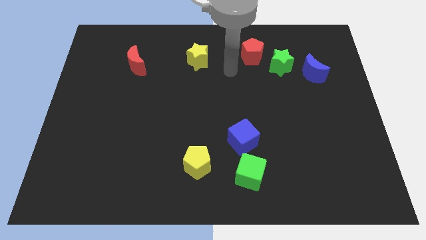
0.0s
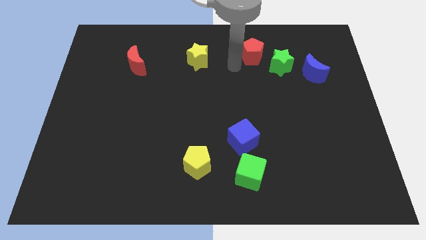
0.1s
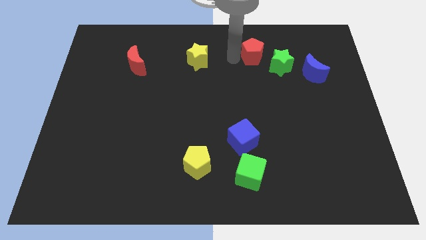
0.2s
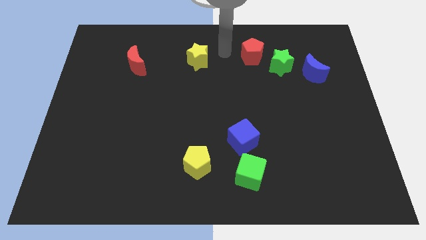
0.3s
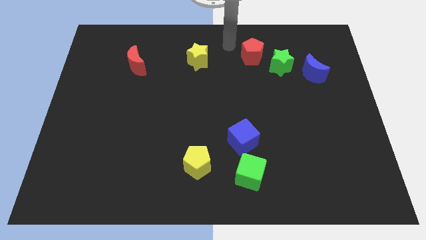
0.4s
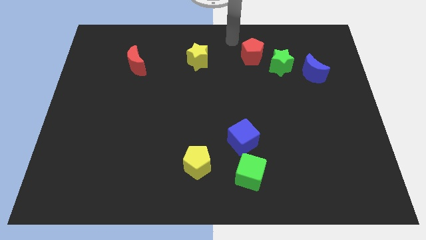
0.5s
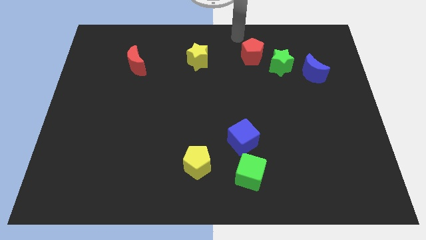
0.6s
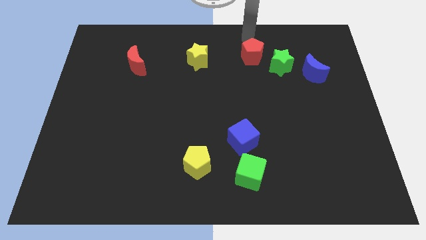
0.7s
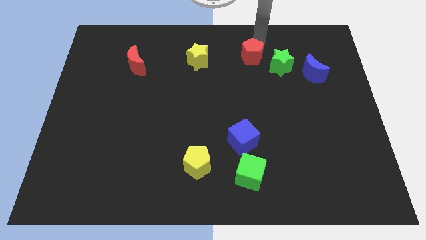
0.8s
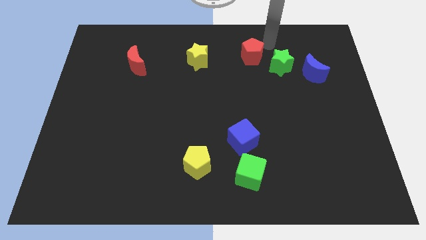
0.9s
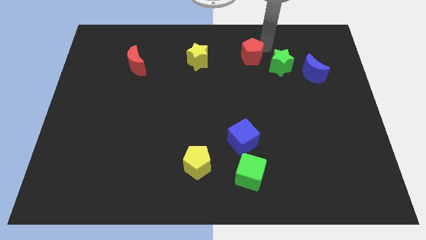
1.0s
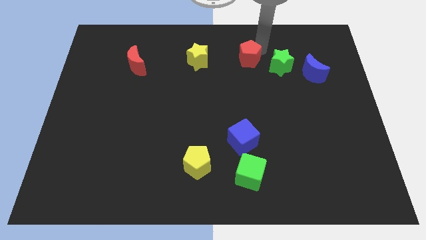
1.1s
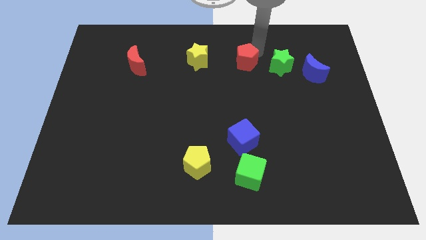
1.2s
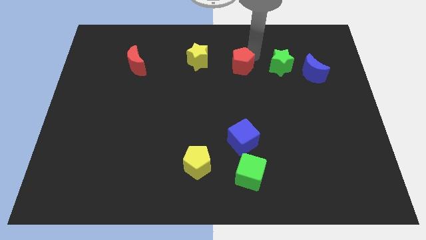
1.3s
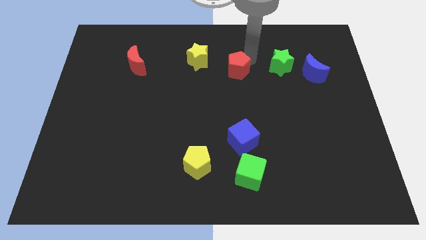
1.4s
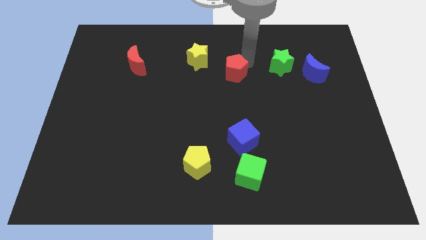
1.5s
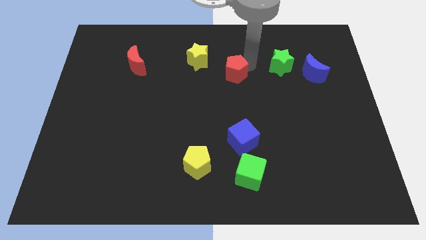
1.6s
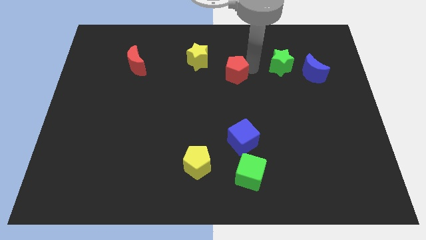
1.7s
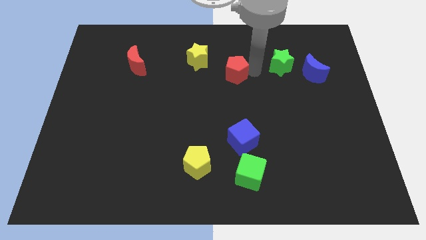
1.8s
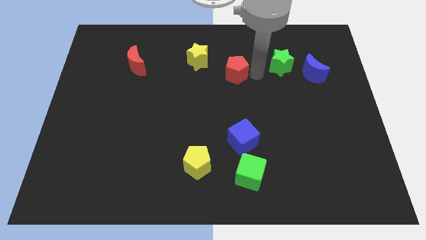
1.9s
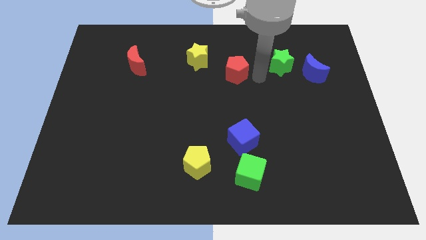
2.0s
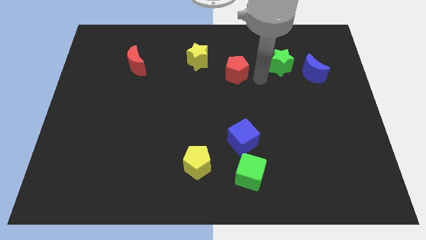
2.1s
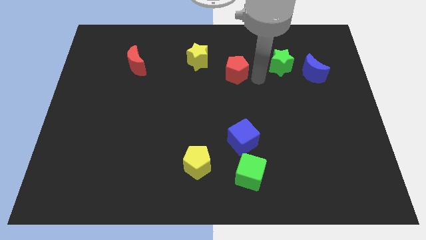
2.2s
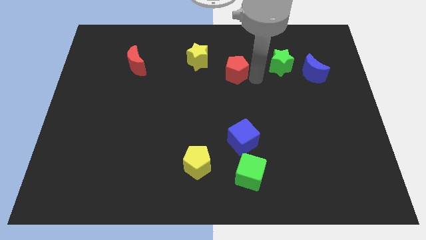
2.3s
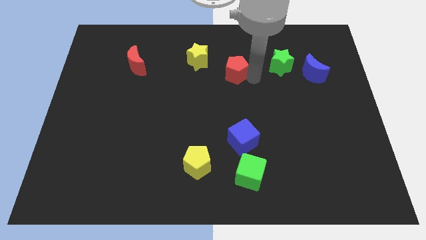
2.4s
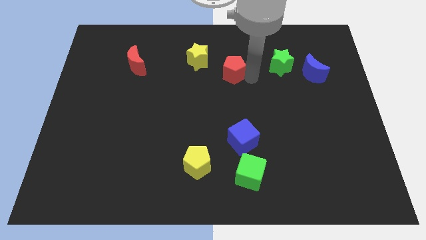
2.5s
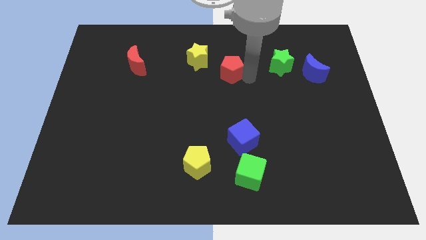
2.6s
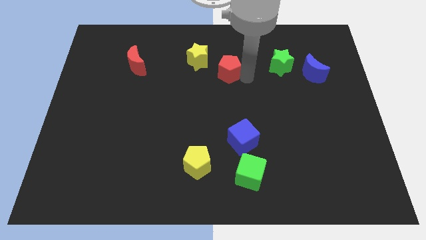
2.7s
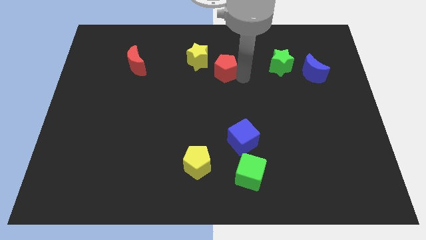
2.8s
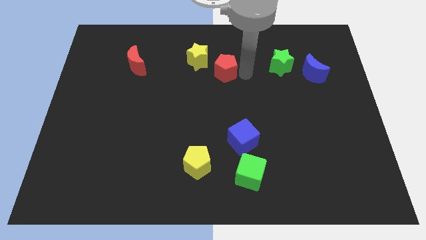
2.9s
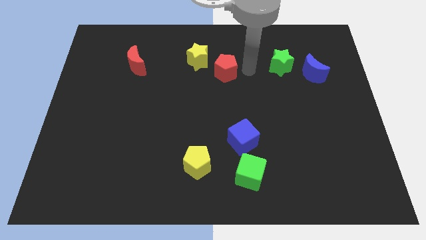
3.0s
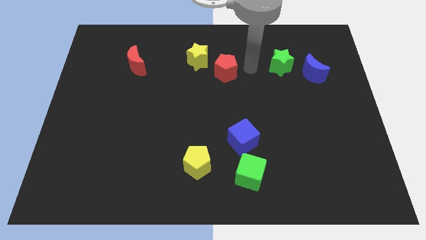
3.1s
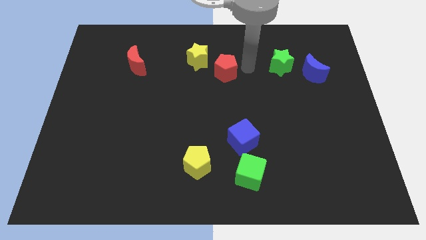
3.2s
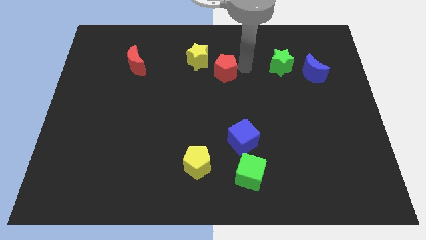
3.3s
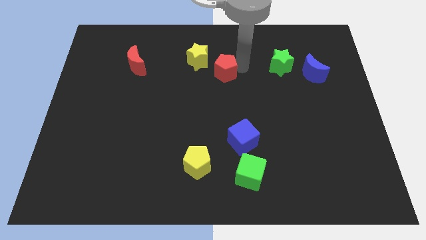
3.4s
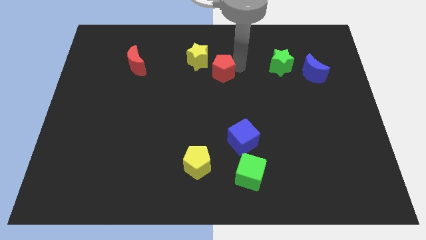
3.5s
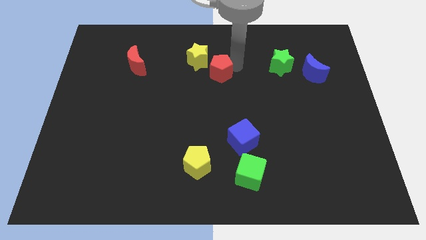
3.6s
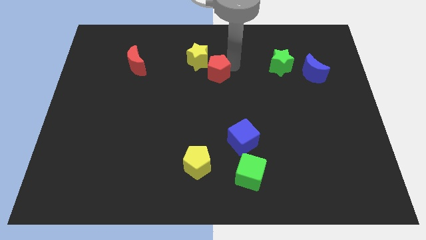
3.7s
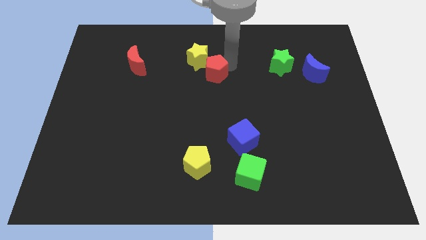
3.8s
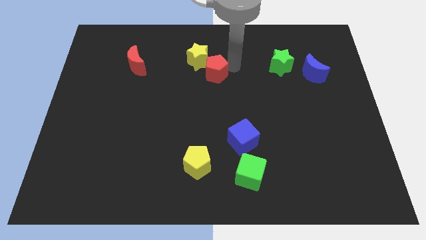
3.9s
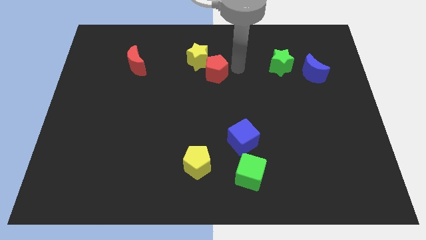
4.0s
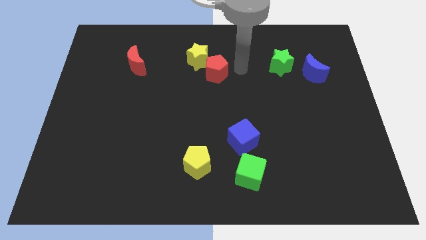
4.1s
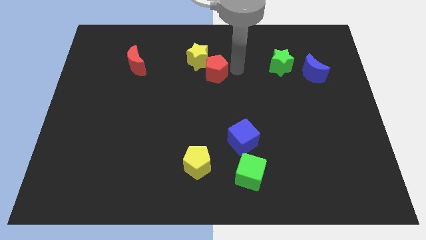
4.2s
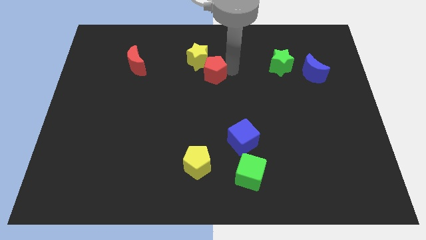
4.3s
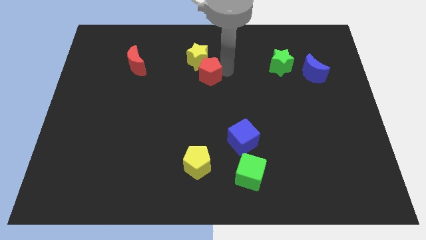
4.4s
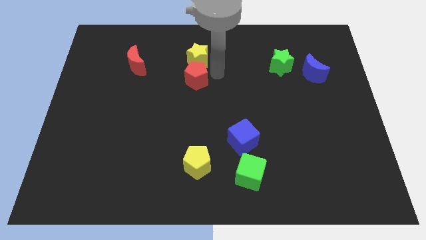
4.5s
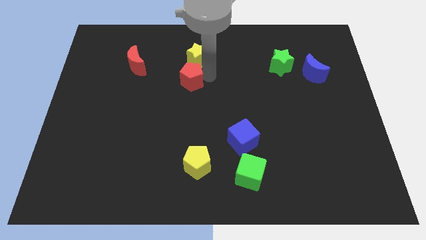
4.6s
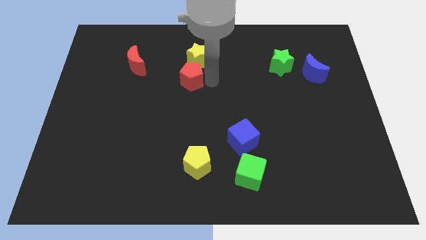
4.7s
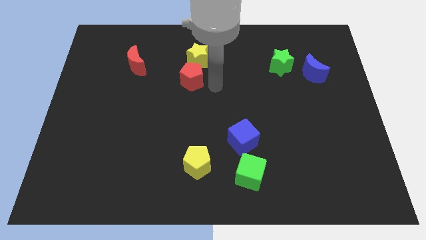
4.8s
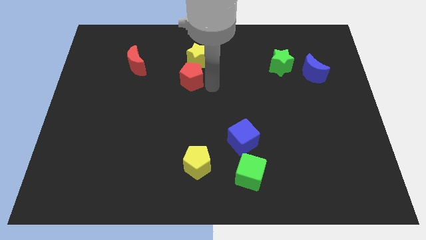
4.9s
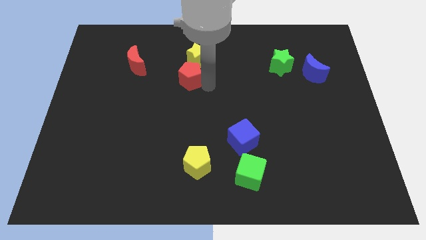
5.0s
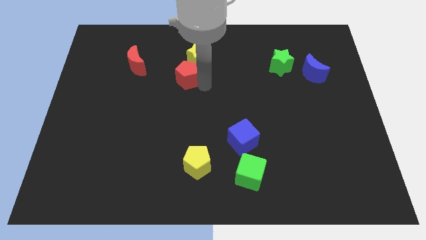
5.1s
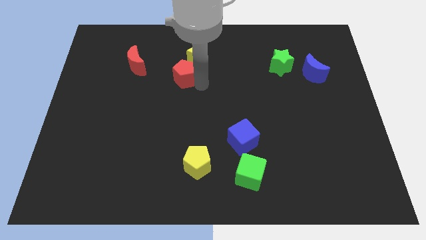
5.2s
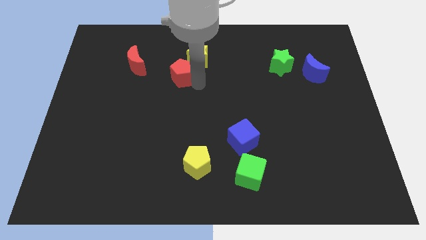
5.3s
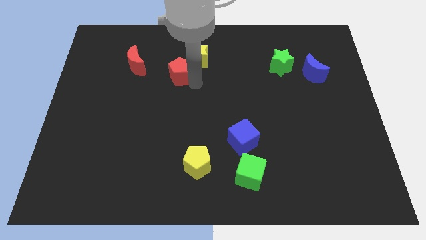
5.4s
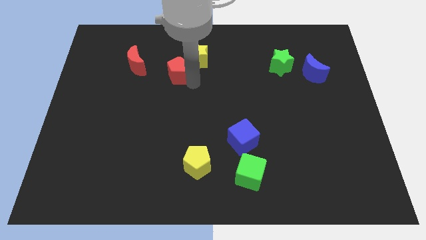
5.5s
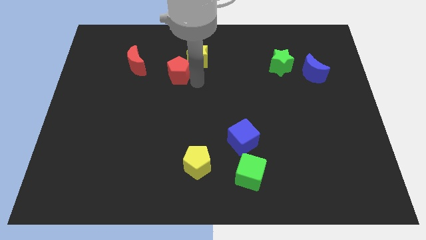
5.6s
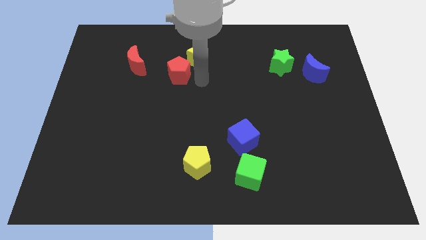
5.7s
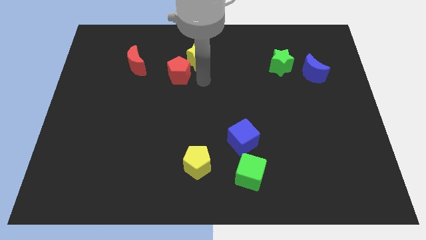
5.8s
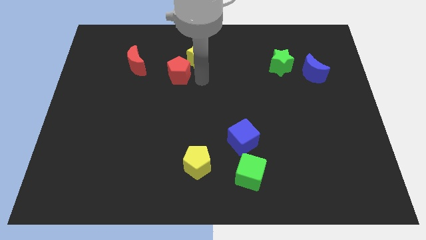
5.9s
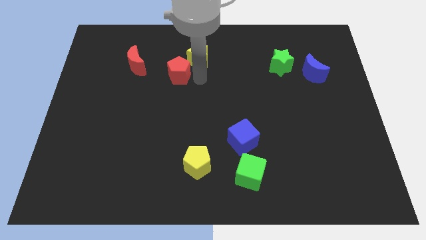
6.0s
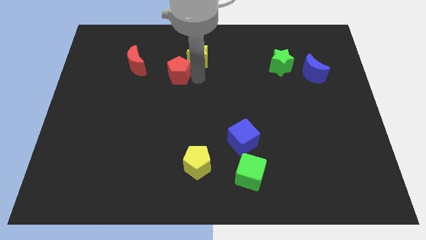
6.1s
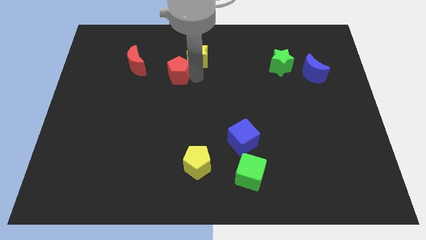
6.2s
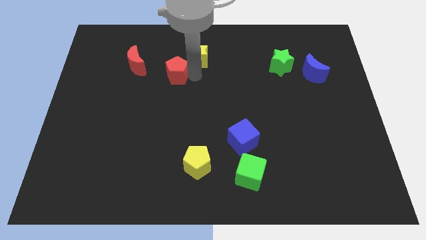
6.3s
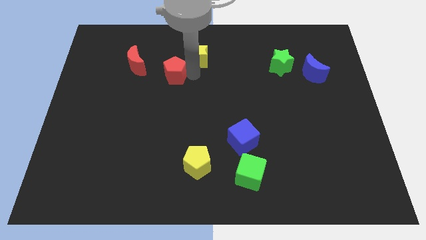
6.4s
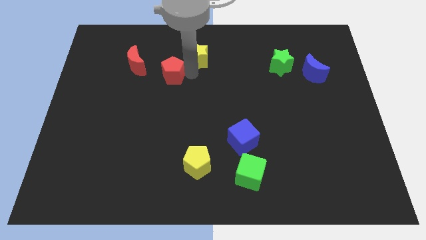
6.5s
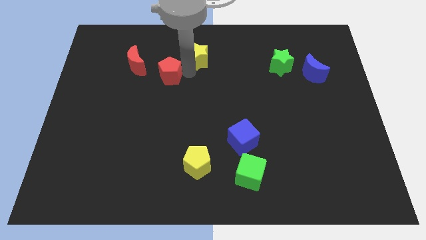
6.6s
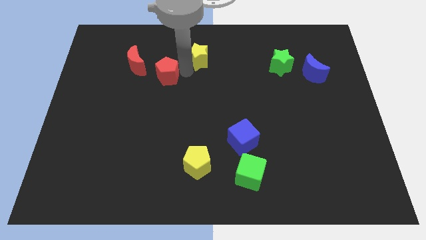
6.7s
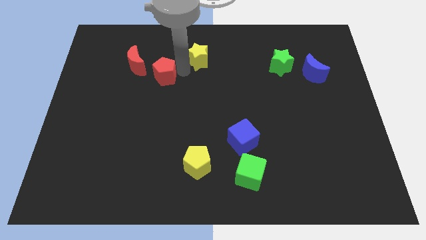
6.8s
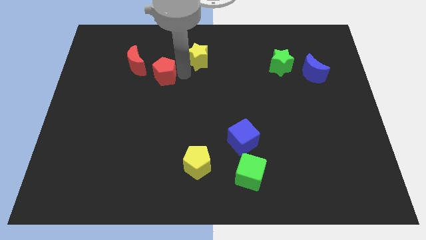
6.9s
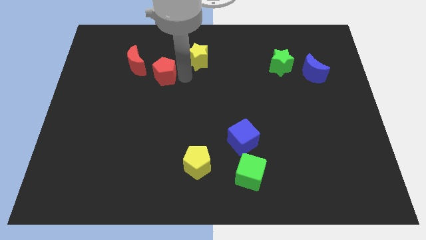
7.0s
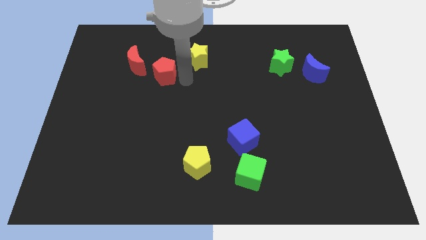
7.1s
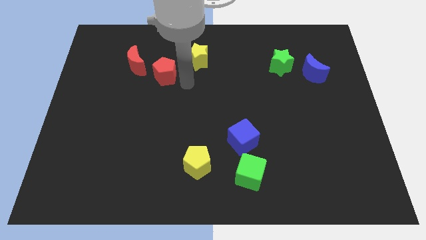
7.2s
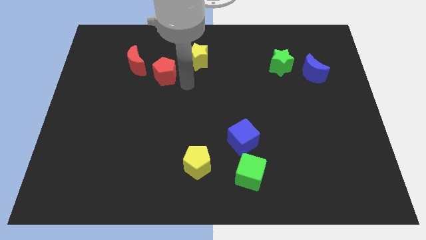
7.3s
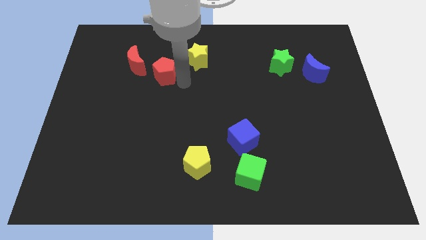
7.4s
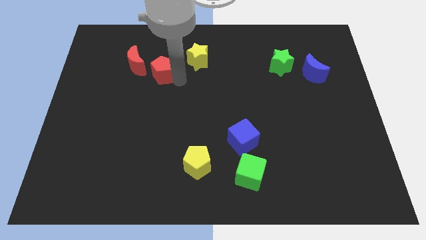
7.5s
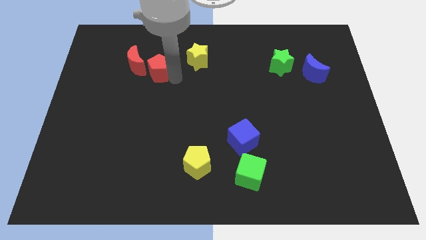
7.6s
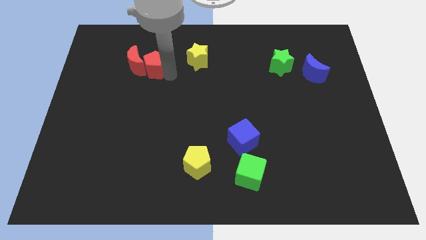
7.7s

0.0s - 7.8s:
move the red pentagon close to the red moon

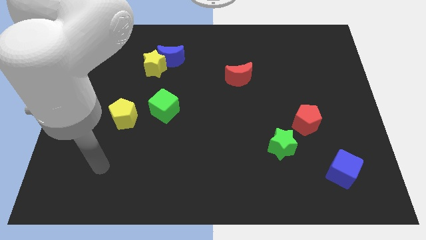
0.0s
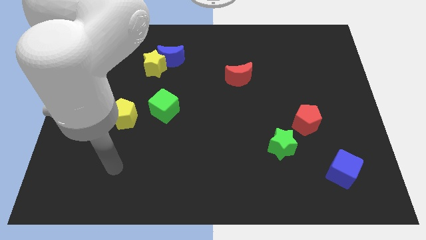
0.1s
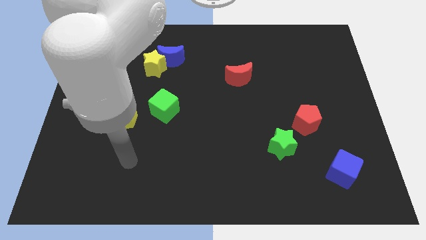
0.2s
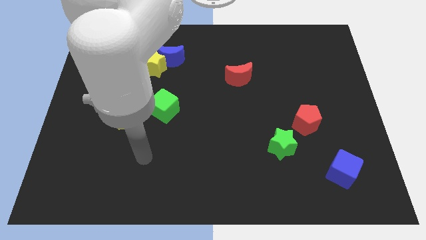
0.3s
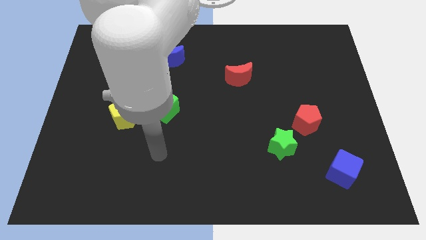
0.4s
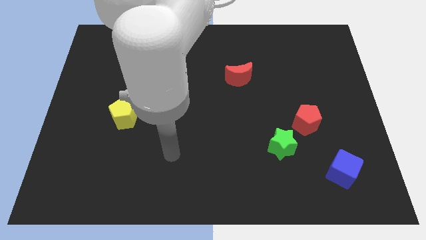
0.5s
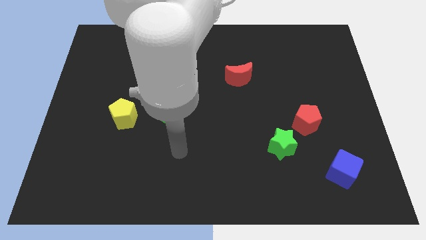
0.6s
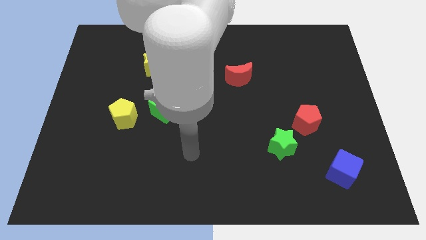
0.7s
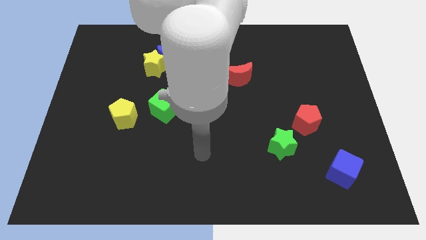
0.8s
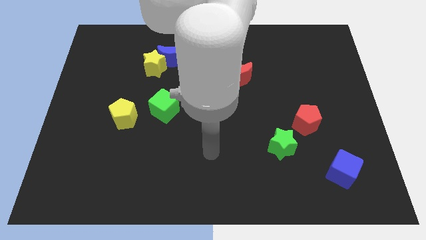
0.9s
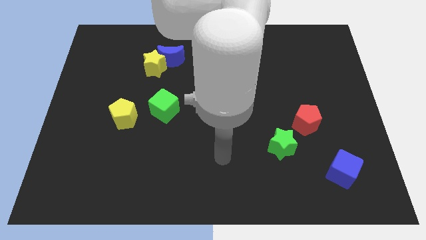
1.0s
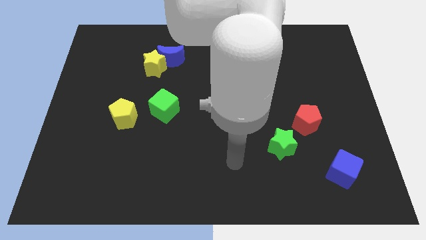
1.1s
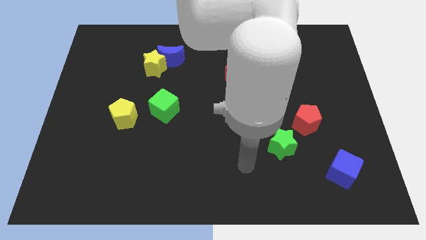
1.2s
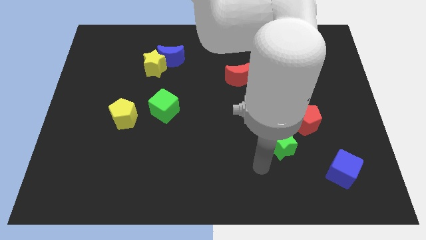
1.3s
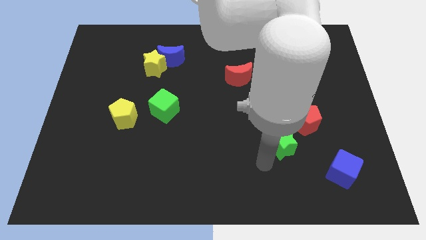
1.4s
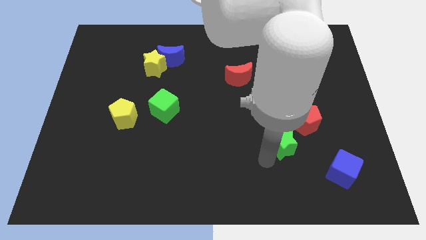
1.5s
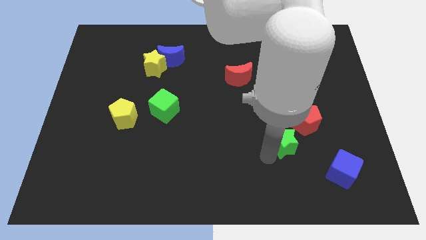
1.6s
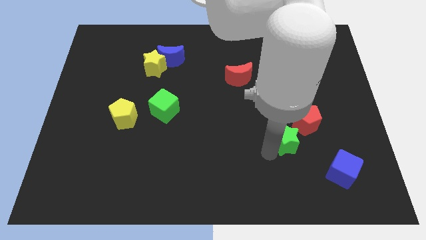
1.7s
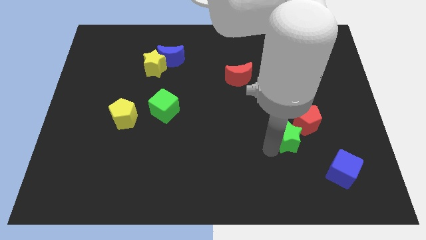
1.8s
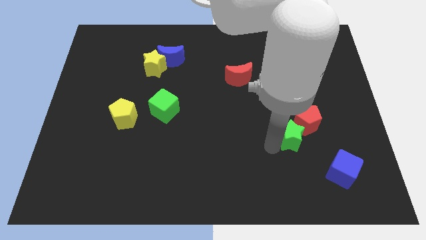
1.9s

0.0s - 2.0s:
slide the green star next to the red pentagon
